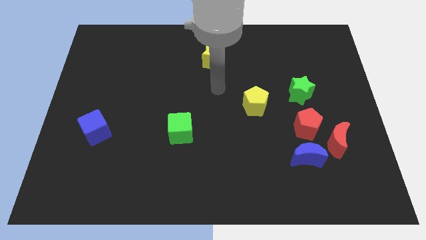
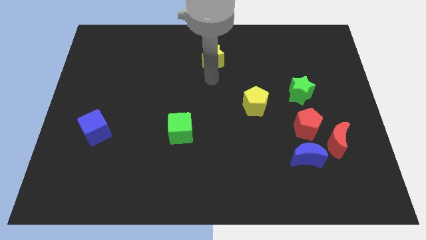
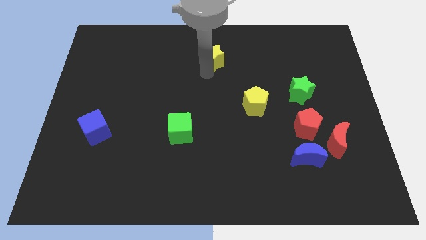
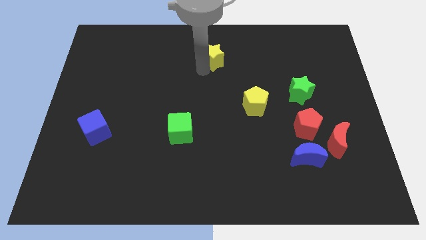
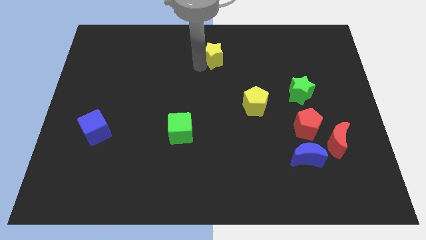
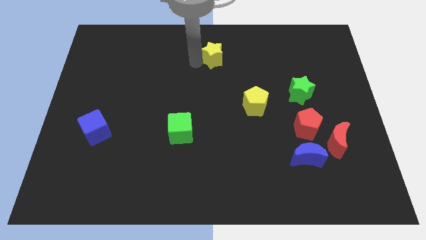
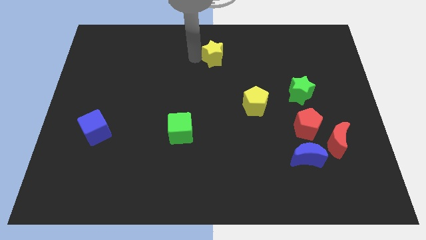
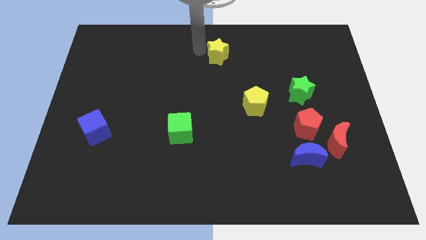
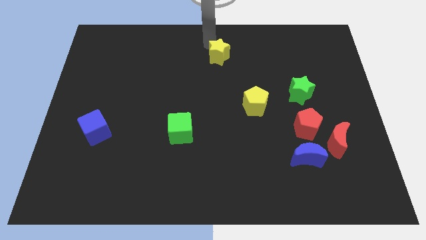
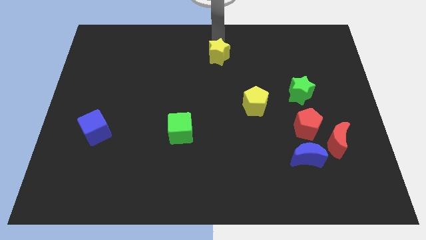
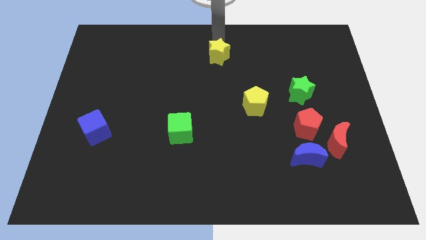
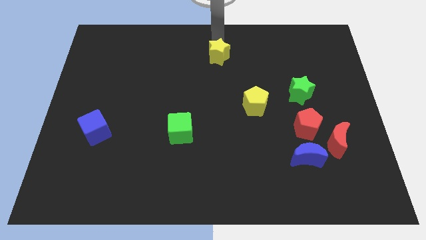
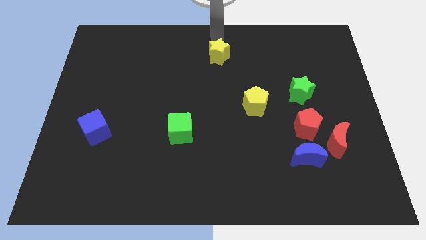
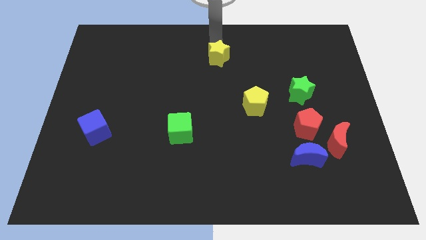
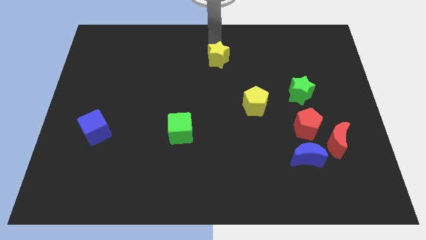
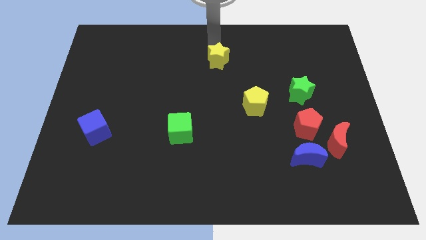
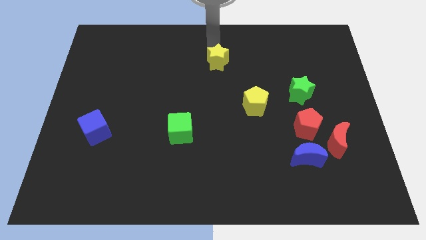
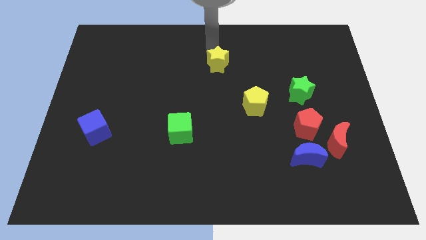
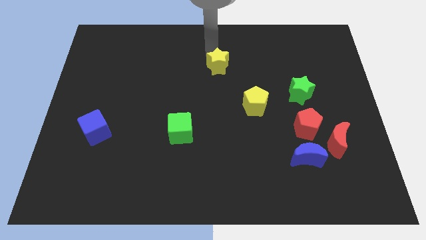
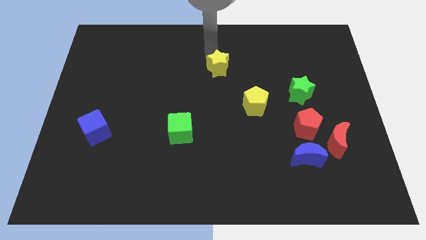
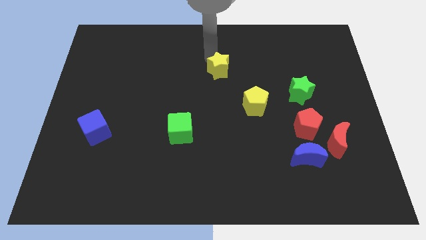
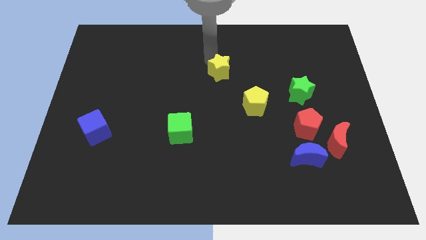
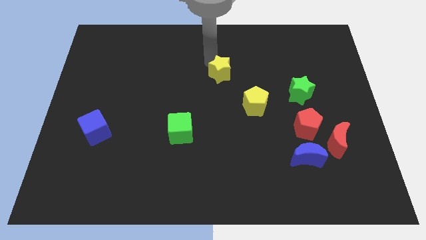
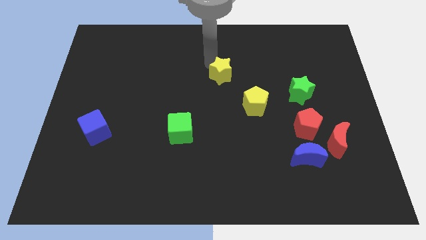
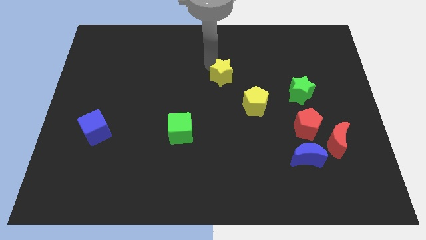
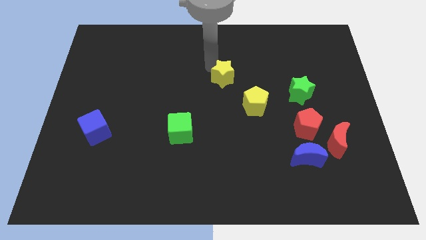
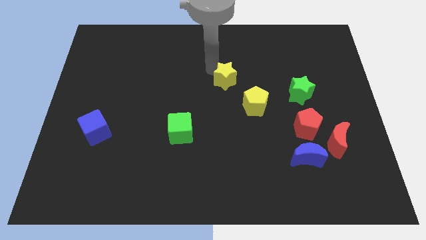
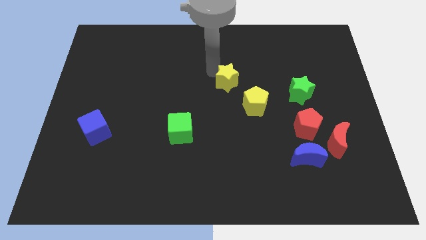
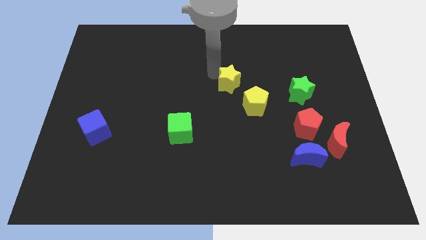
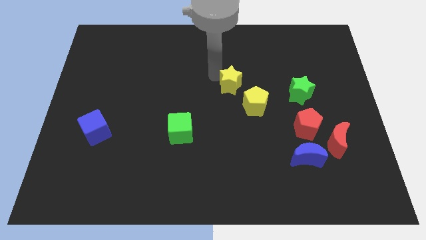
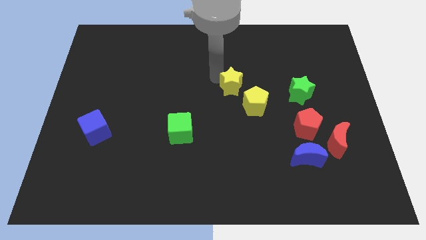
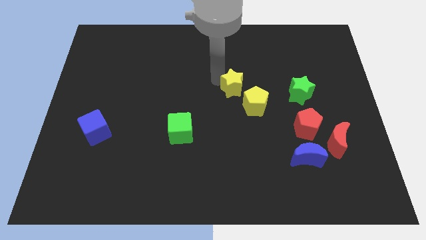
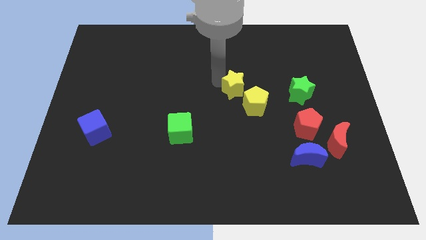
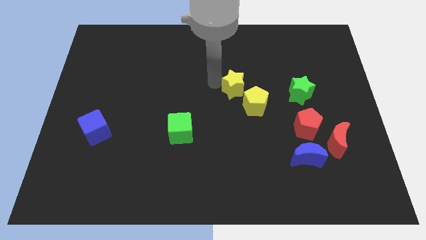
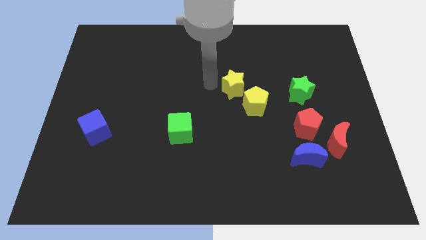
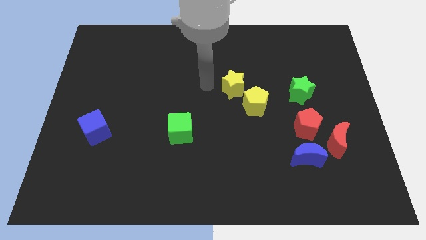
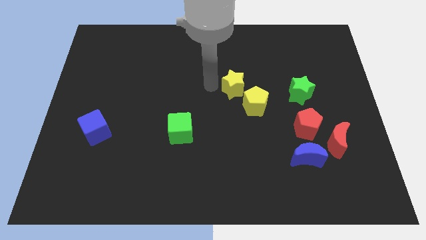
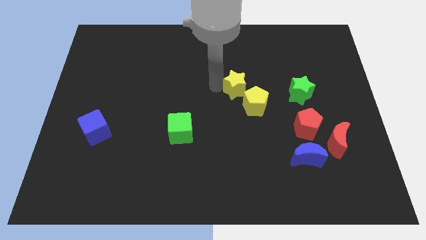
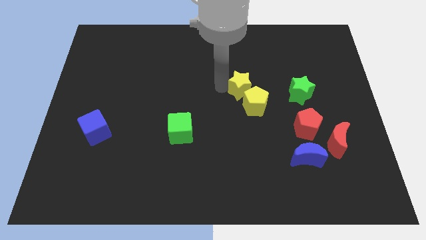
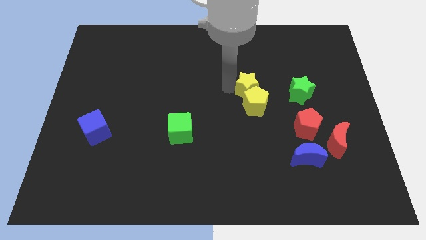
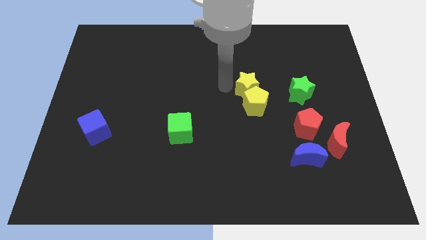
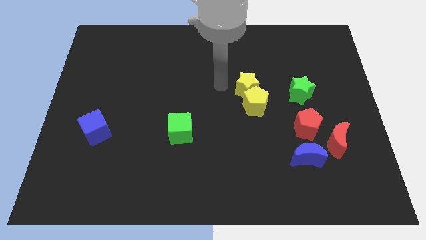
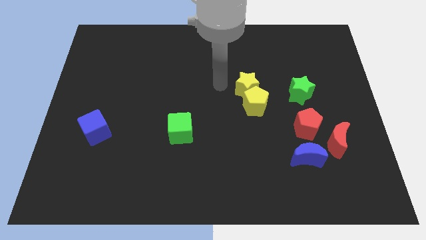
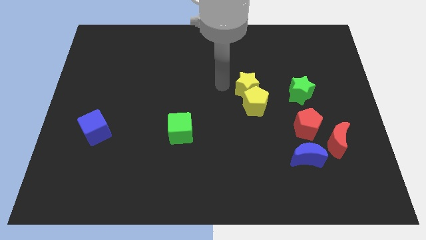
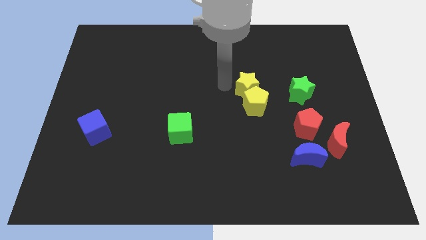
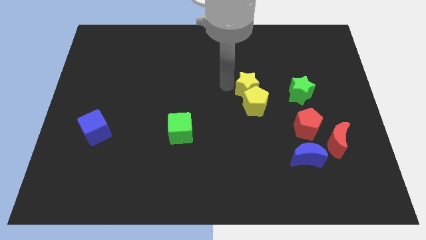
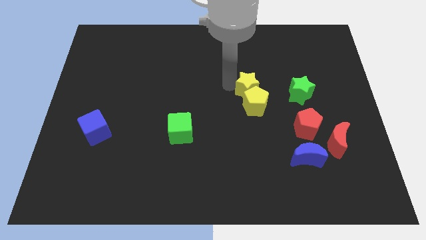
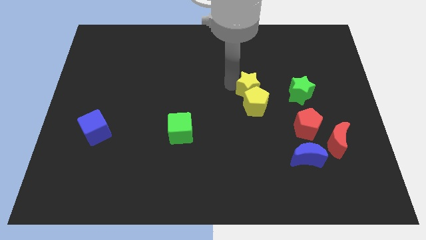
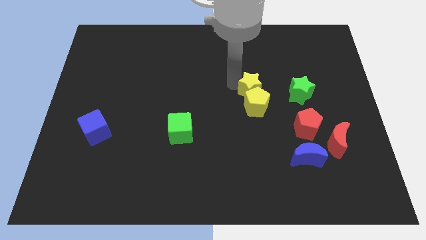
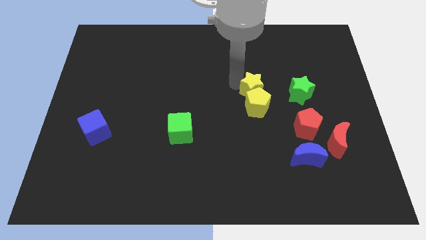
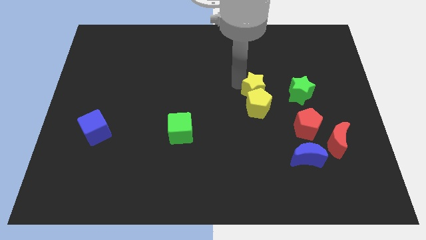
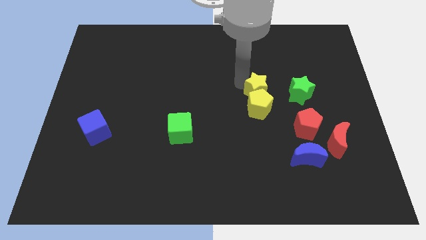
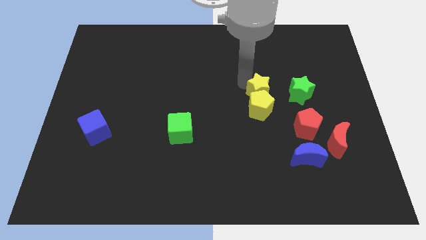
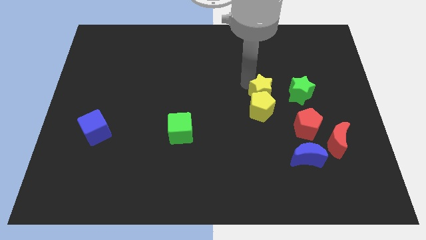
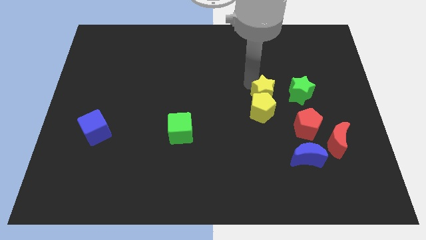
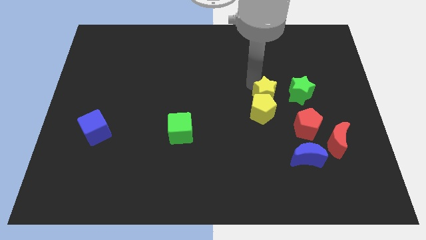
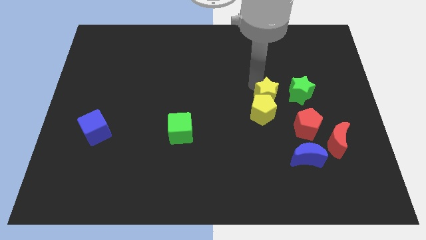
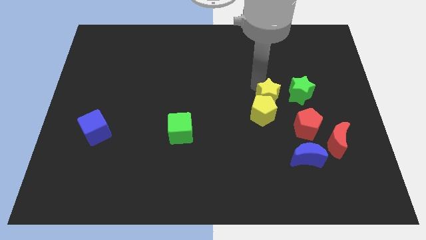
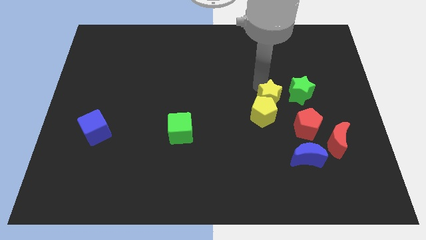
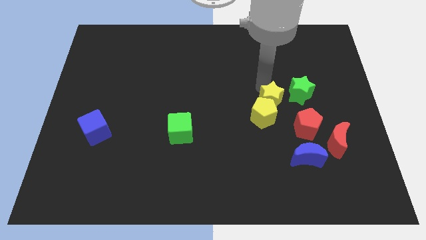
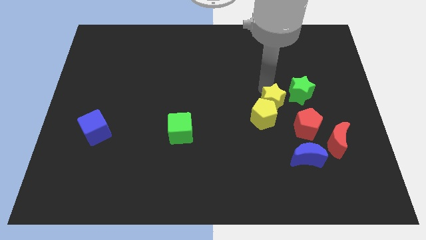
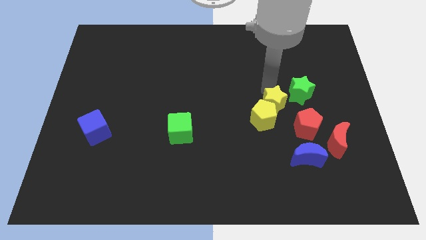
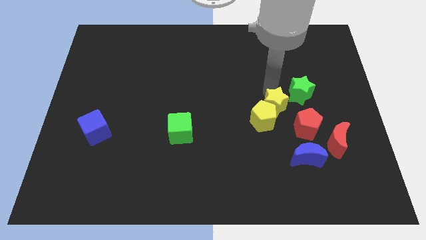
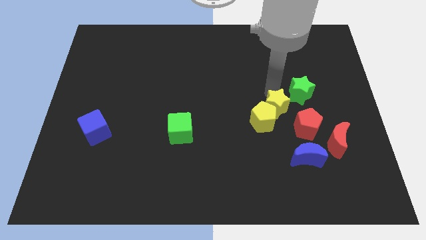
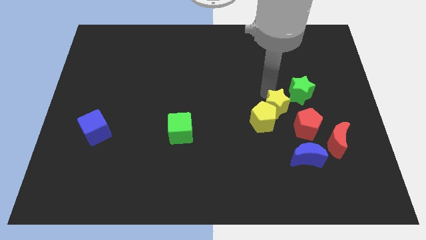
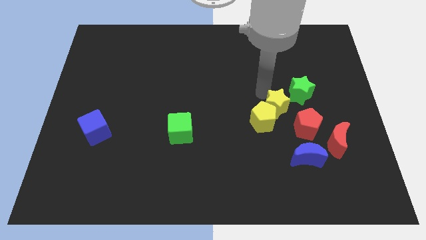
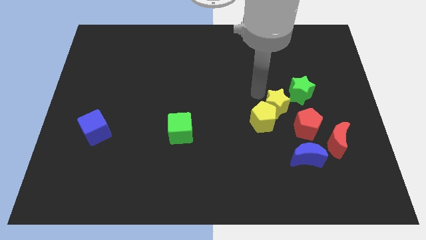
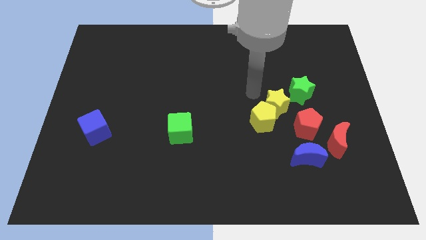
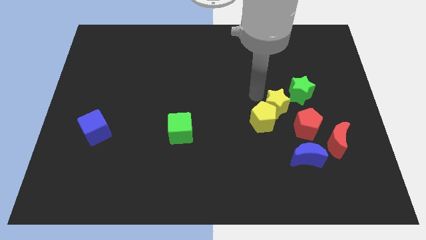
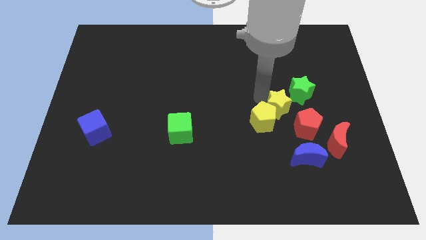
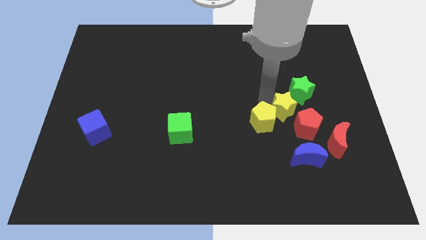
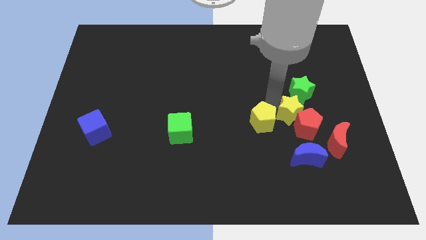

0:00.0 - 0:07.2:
move the yellow star next to the red pentagon
